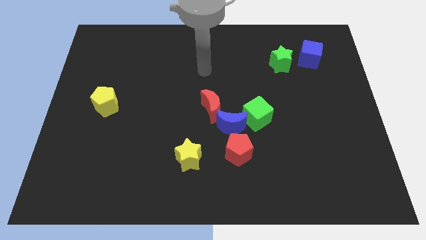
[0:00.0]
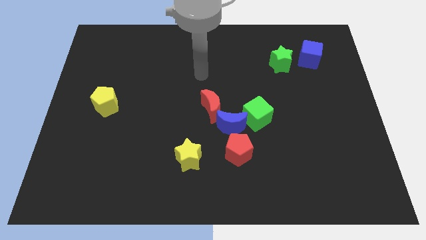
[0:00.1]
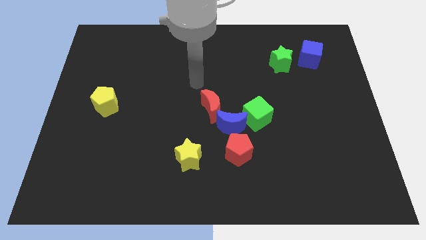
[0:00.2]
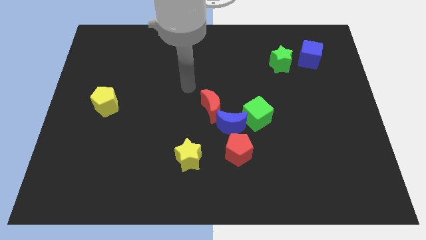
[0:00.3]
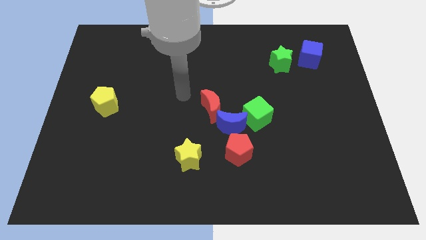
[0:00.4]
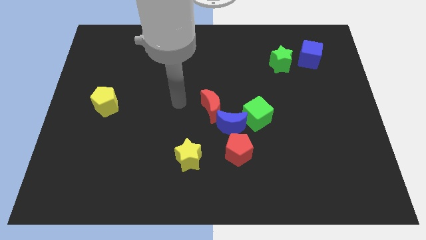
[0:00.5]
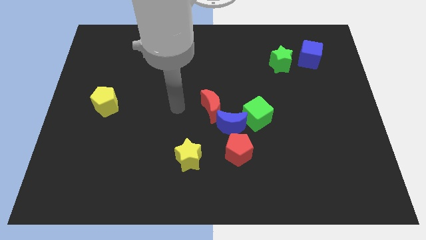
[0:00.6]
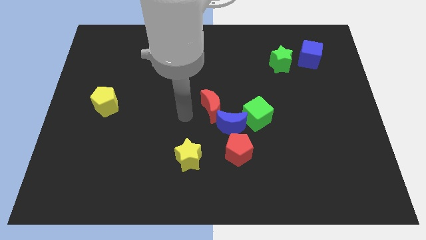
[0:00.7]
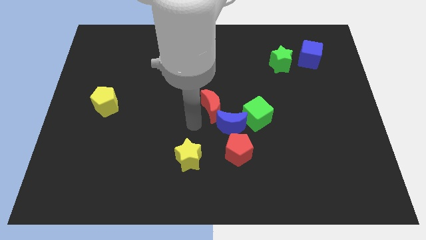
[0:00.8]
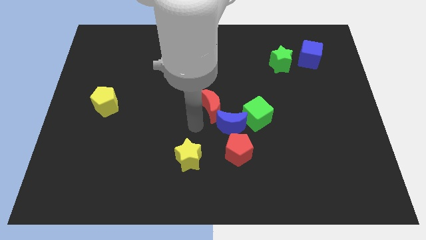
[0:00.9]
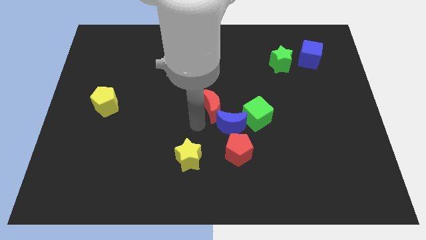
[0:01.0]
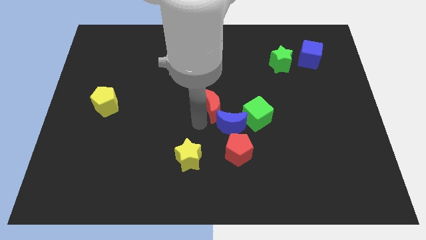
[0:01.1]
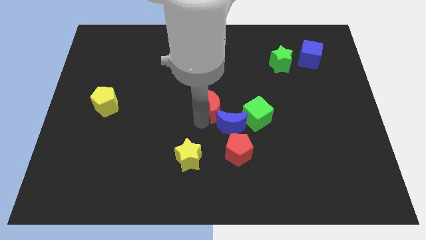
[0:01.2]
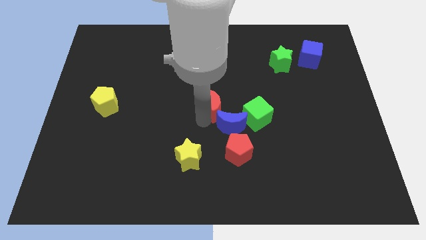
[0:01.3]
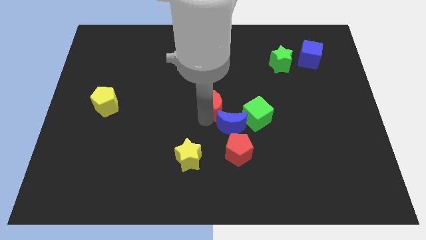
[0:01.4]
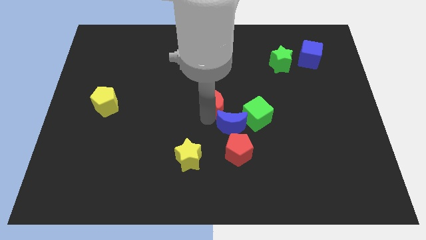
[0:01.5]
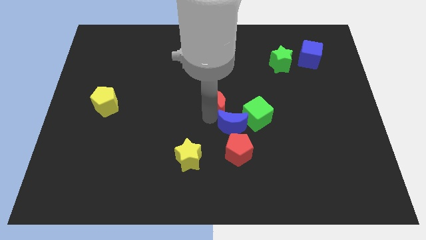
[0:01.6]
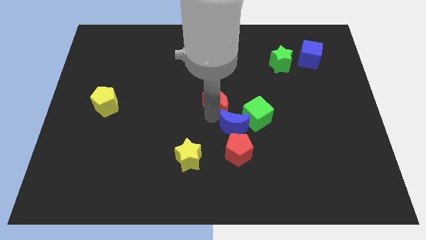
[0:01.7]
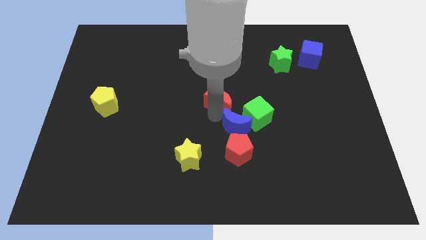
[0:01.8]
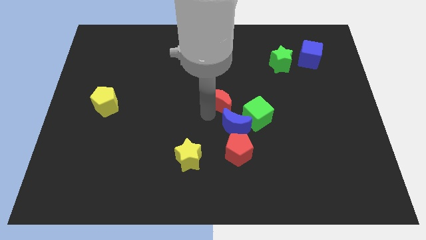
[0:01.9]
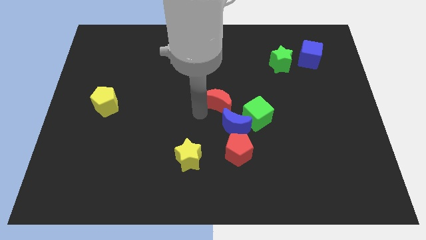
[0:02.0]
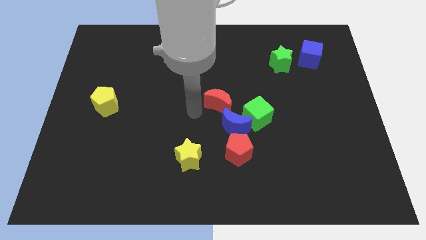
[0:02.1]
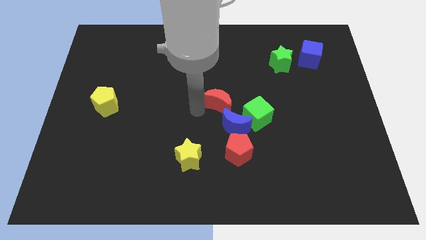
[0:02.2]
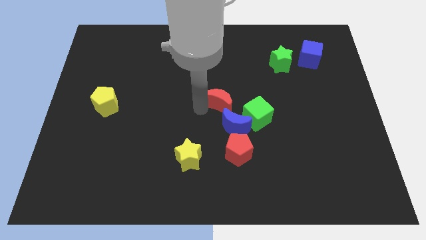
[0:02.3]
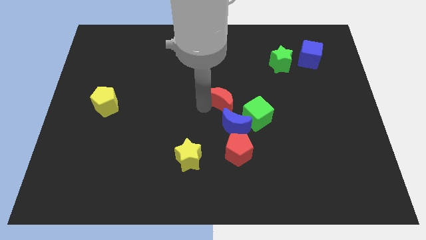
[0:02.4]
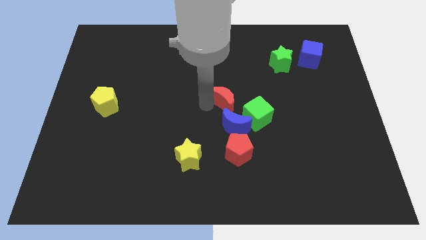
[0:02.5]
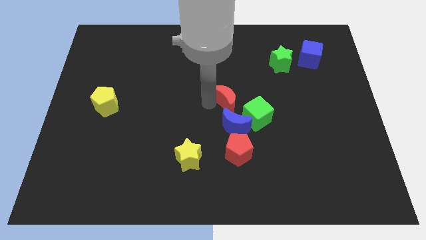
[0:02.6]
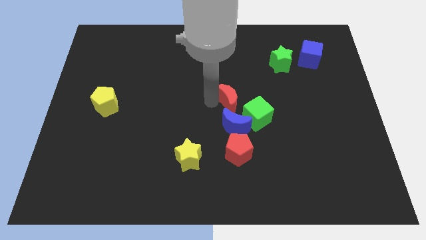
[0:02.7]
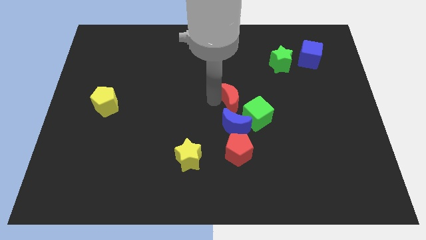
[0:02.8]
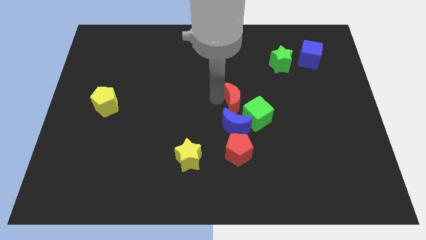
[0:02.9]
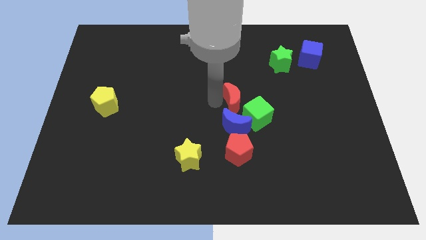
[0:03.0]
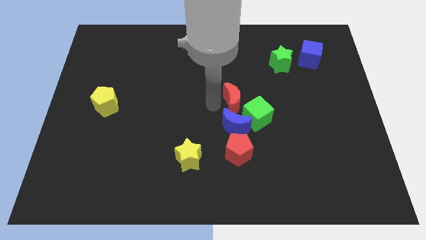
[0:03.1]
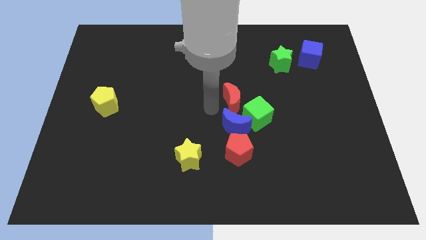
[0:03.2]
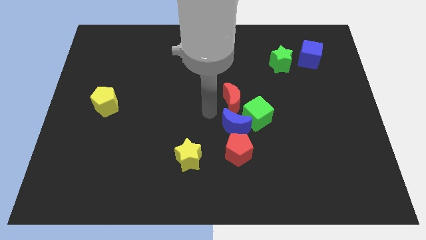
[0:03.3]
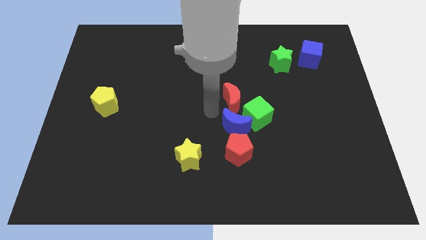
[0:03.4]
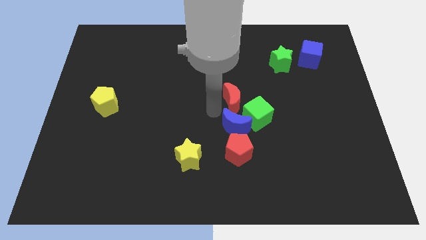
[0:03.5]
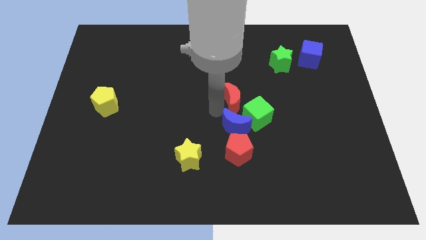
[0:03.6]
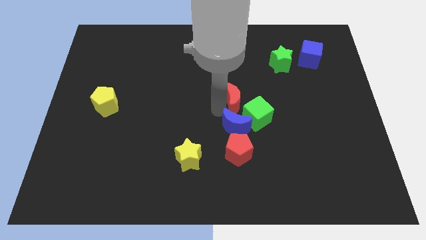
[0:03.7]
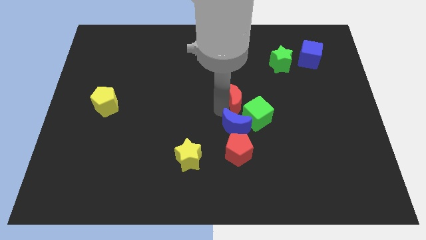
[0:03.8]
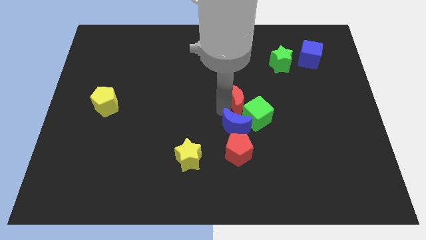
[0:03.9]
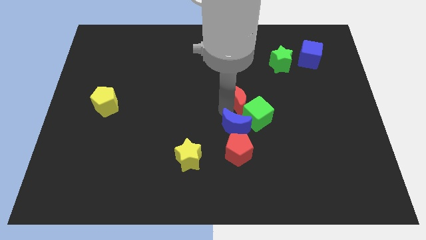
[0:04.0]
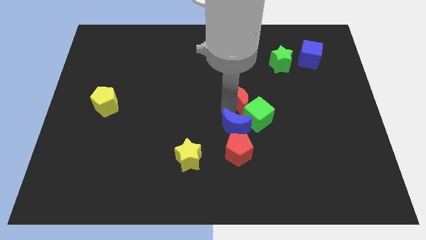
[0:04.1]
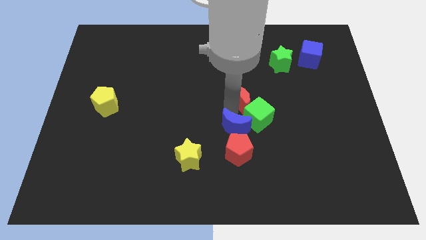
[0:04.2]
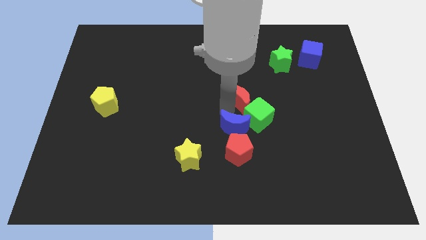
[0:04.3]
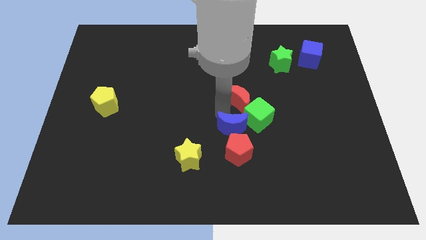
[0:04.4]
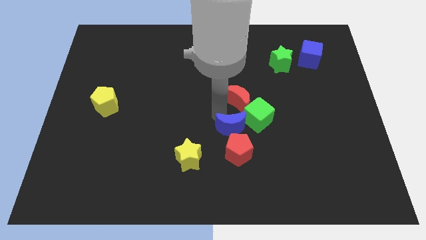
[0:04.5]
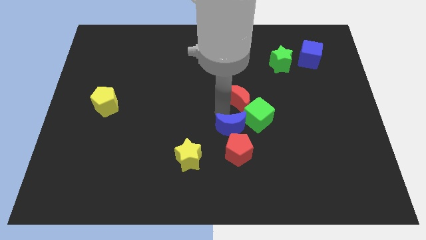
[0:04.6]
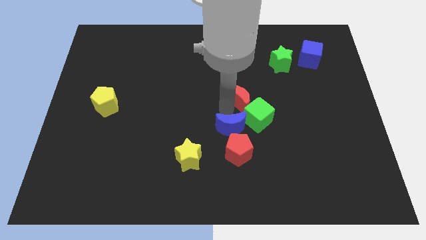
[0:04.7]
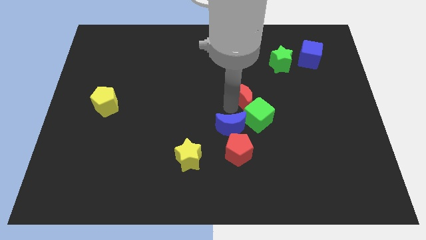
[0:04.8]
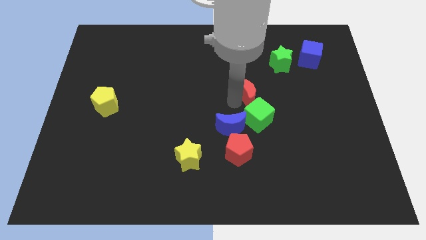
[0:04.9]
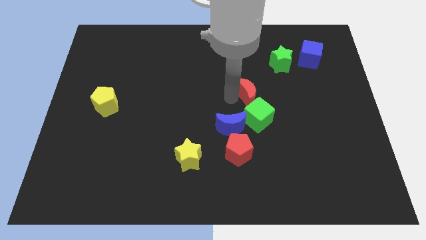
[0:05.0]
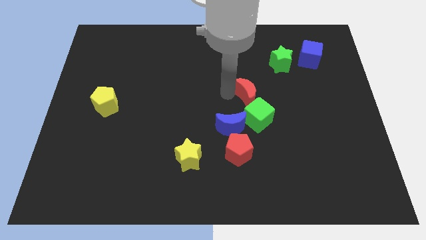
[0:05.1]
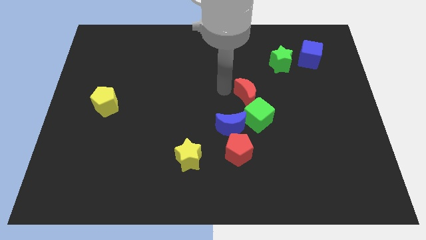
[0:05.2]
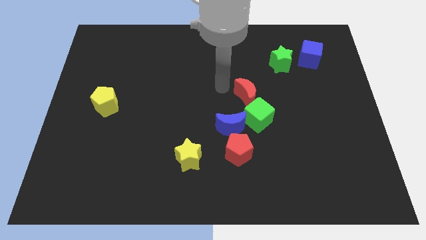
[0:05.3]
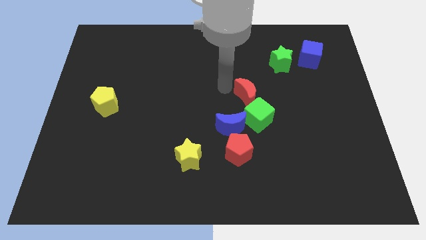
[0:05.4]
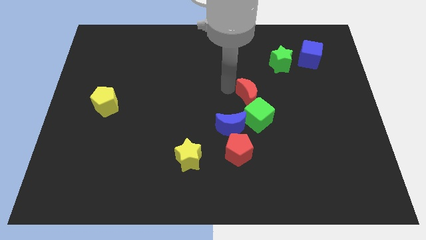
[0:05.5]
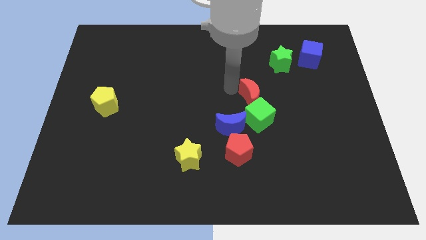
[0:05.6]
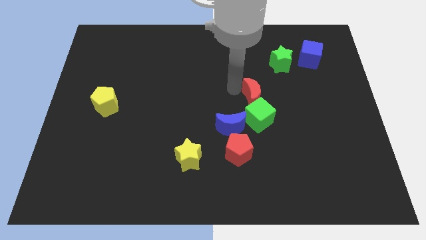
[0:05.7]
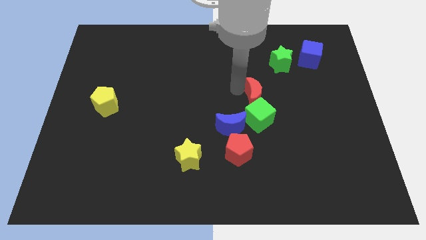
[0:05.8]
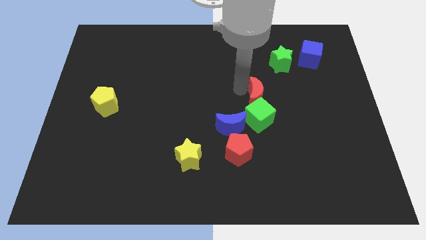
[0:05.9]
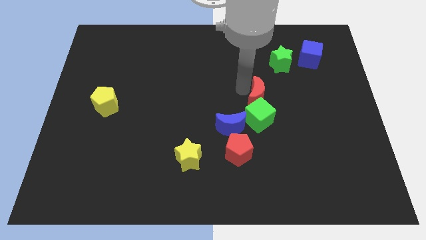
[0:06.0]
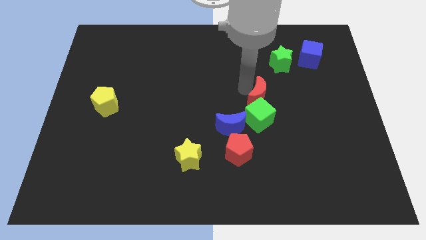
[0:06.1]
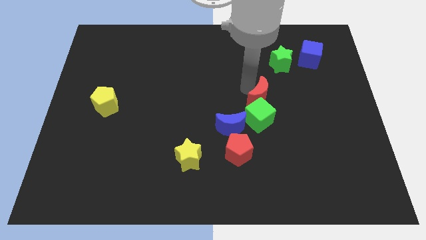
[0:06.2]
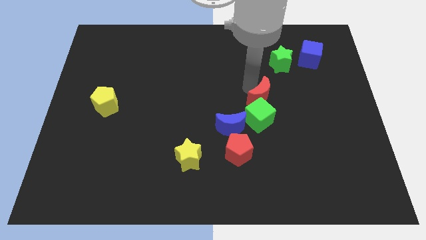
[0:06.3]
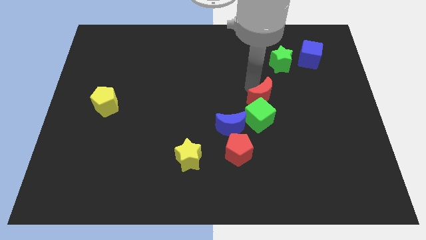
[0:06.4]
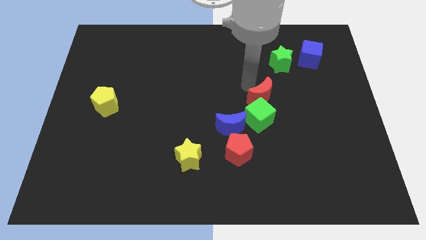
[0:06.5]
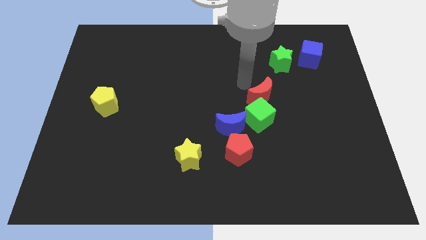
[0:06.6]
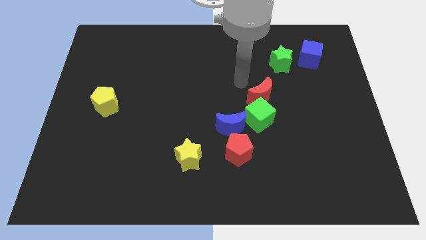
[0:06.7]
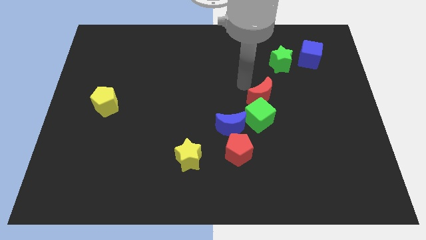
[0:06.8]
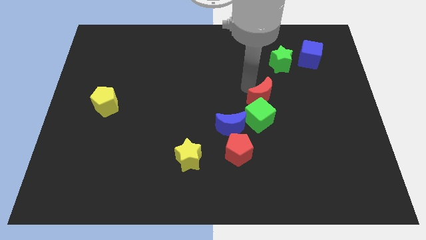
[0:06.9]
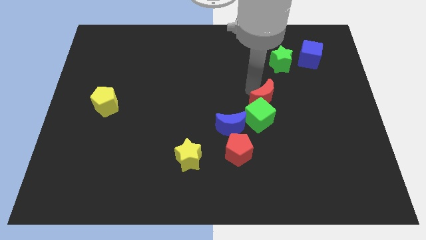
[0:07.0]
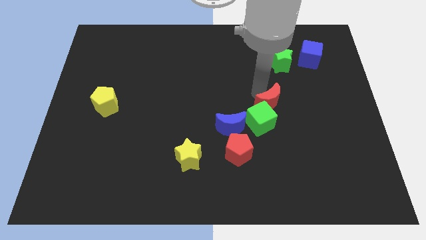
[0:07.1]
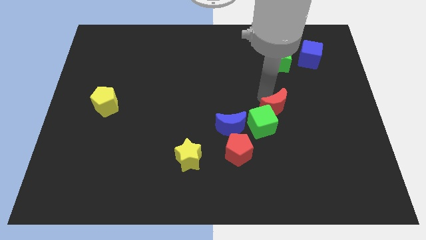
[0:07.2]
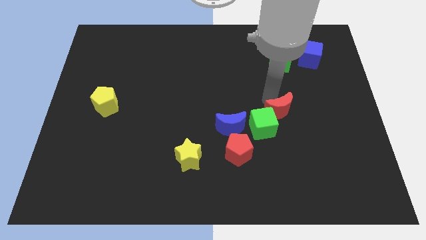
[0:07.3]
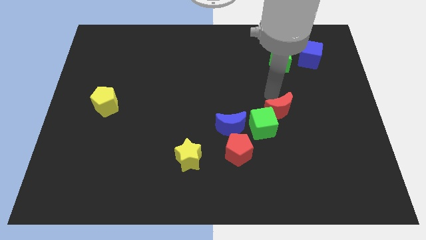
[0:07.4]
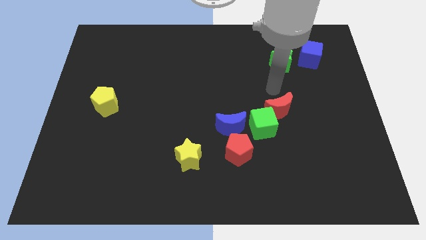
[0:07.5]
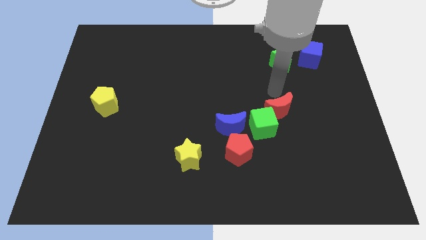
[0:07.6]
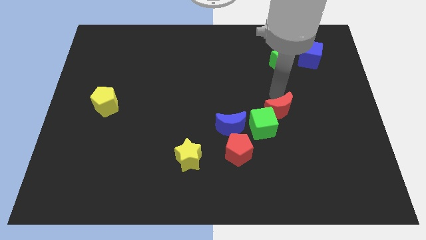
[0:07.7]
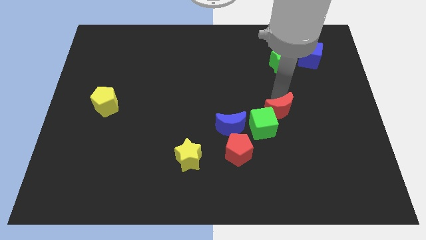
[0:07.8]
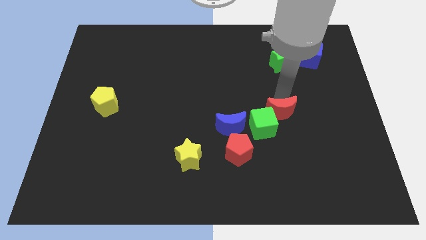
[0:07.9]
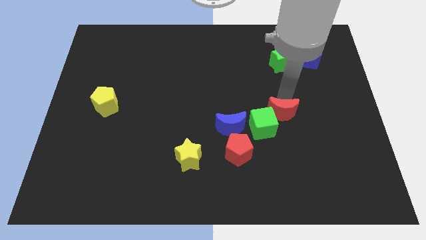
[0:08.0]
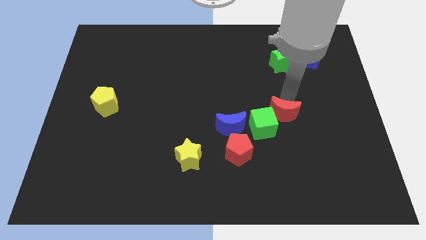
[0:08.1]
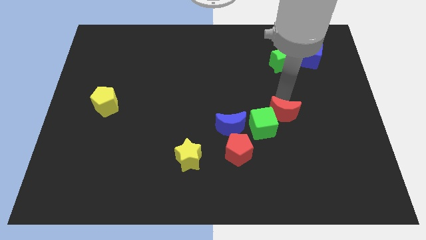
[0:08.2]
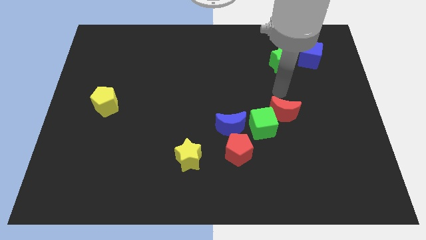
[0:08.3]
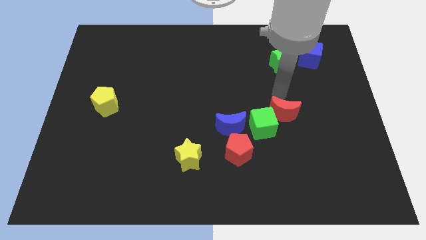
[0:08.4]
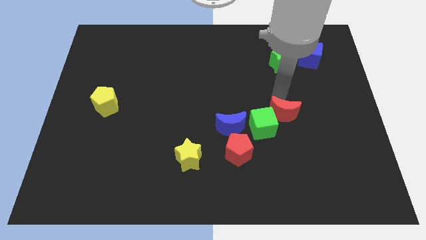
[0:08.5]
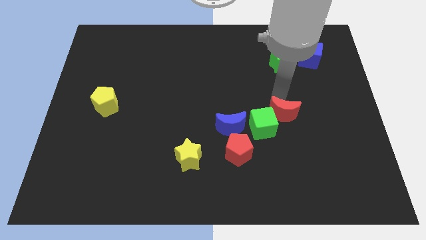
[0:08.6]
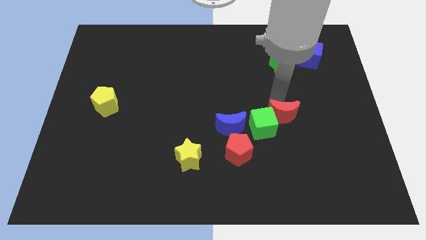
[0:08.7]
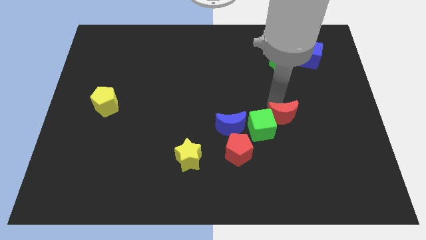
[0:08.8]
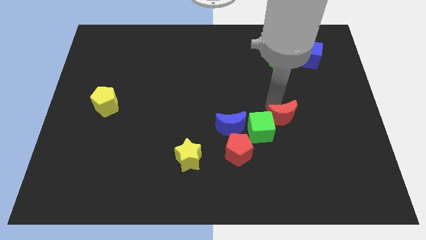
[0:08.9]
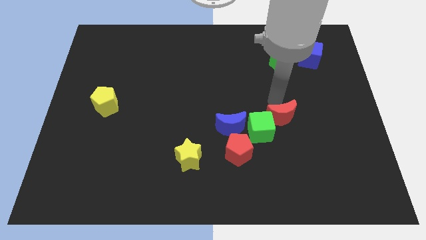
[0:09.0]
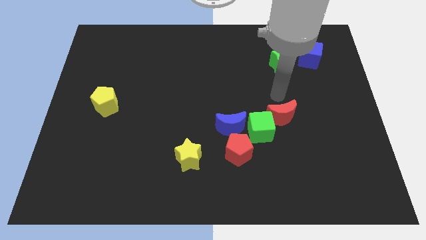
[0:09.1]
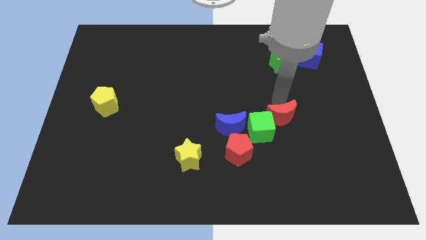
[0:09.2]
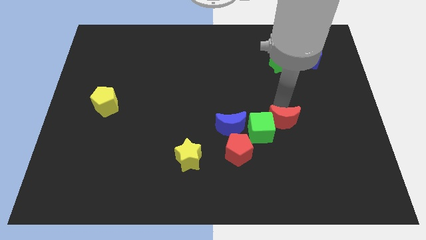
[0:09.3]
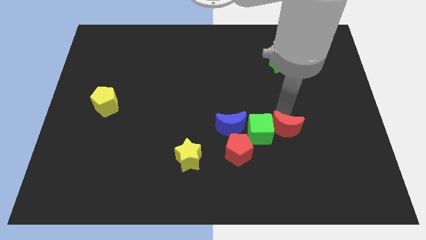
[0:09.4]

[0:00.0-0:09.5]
push the red moon diagonally down and to the right of the green cube
